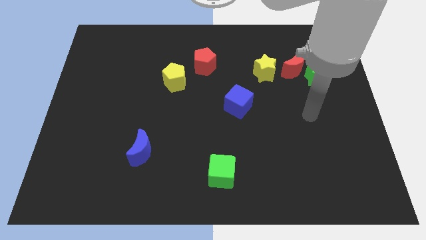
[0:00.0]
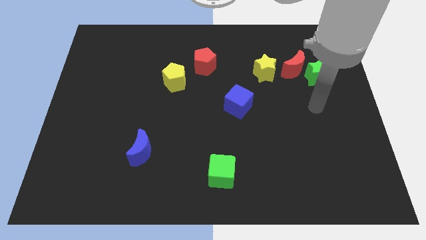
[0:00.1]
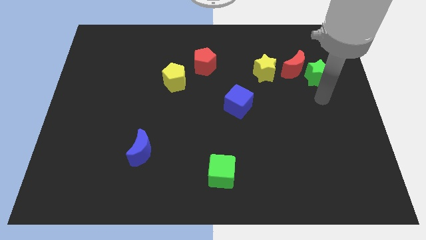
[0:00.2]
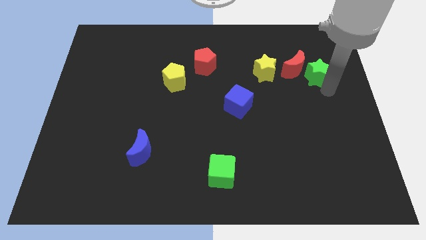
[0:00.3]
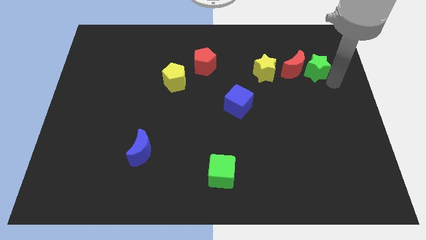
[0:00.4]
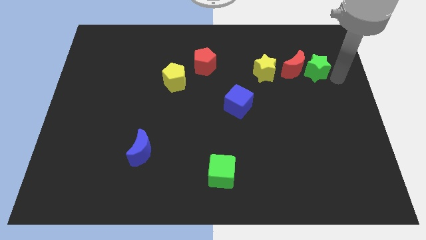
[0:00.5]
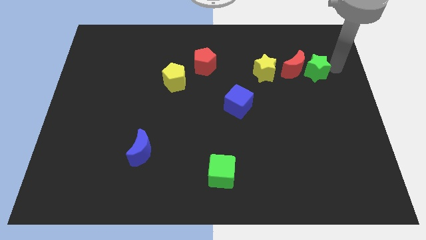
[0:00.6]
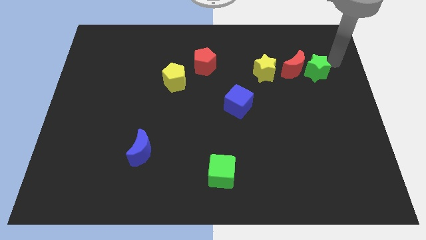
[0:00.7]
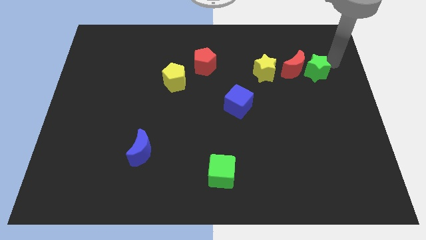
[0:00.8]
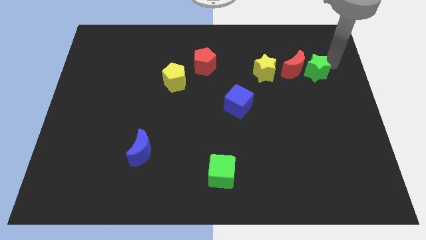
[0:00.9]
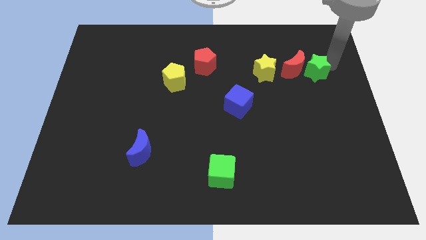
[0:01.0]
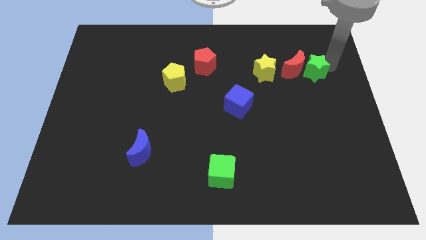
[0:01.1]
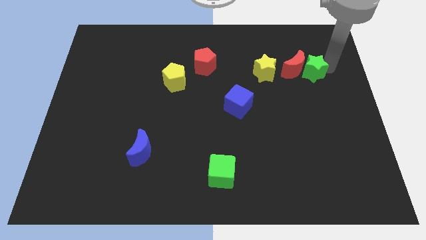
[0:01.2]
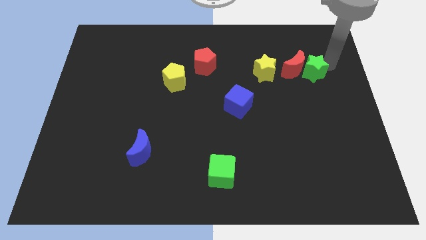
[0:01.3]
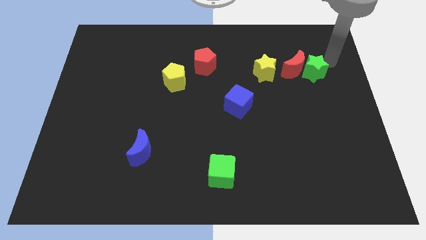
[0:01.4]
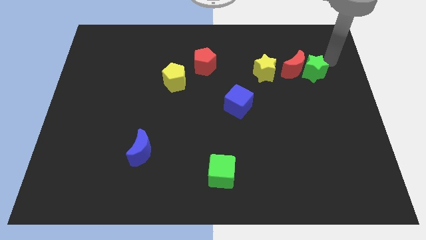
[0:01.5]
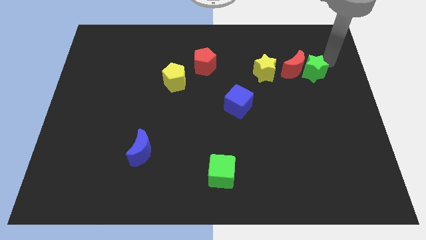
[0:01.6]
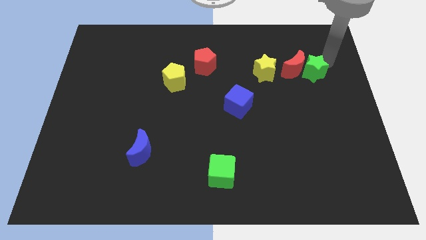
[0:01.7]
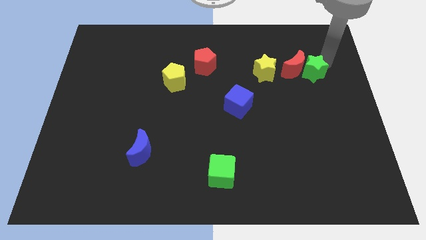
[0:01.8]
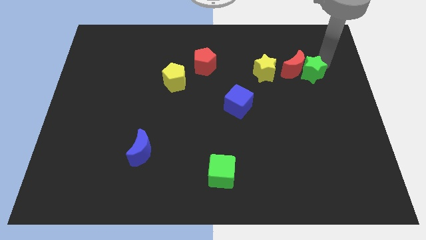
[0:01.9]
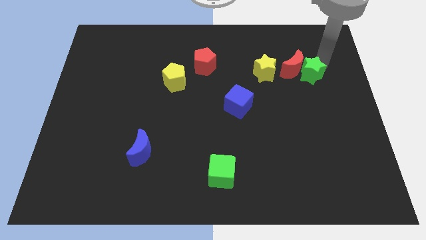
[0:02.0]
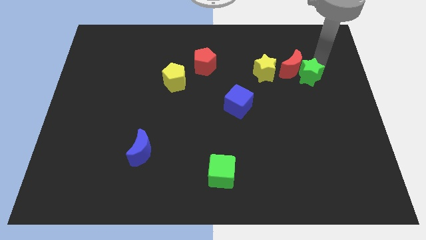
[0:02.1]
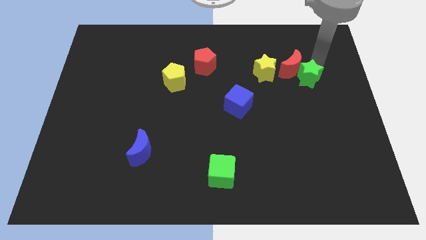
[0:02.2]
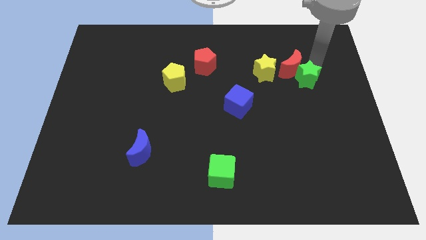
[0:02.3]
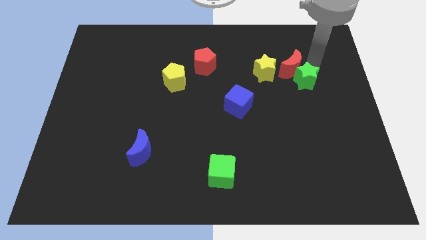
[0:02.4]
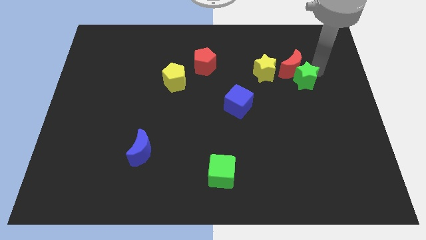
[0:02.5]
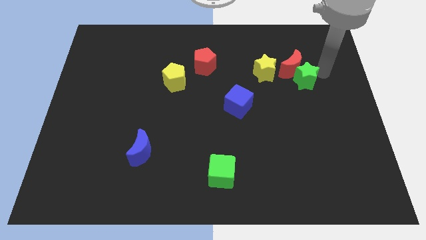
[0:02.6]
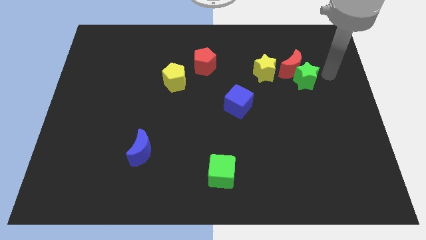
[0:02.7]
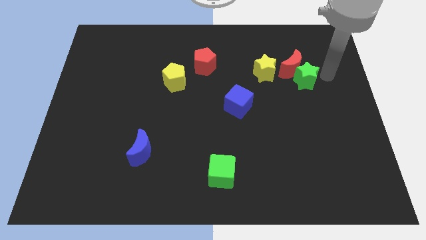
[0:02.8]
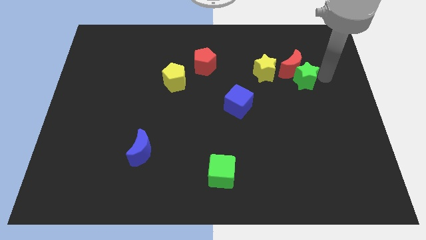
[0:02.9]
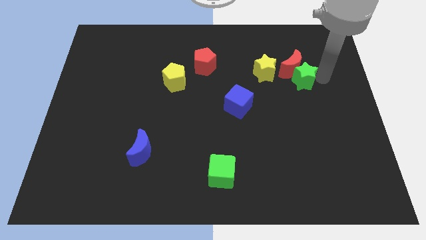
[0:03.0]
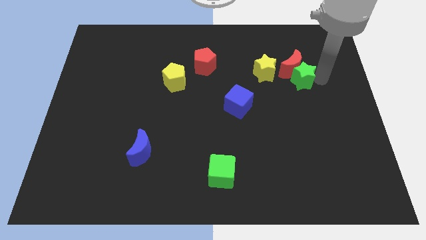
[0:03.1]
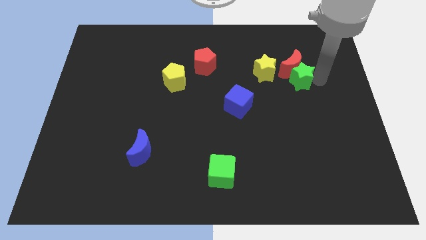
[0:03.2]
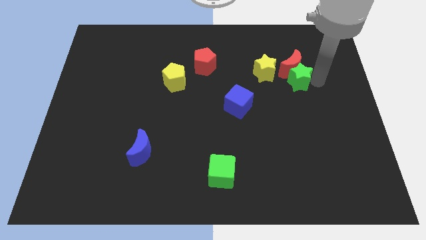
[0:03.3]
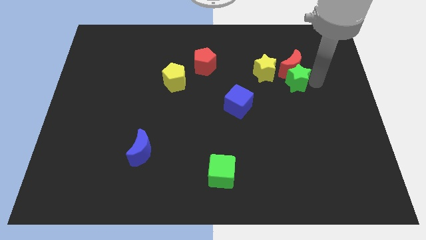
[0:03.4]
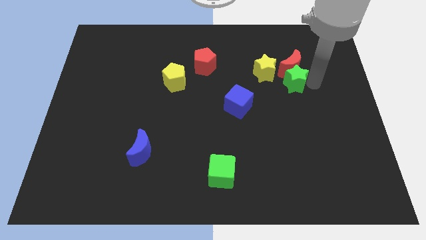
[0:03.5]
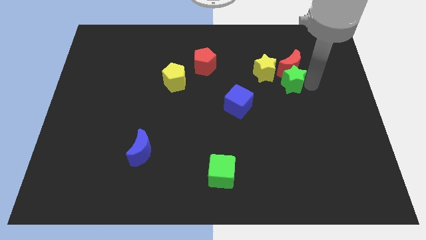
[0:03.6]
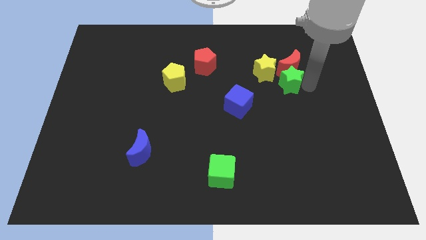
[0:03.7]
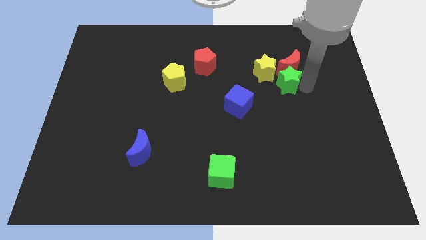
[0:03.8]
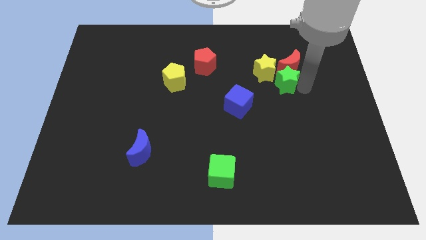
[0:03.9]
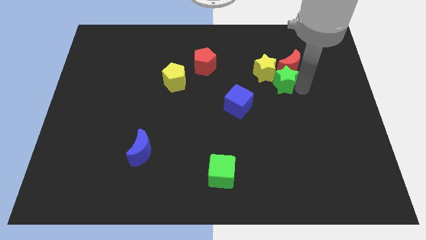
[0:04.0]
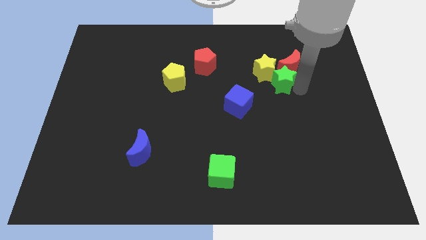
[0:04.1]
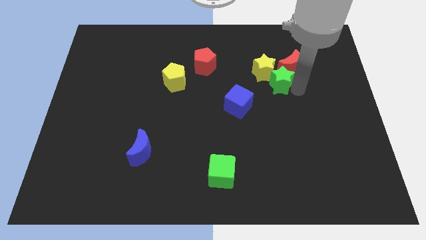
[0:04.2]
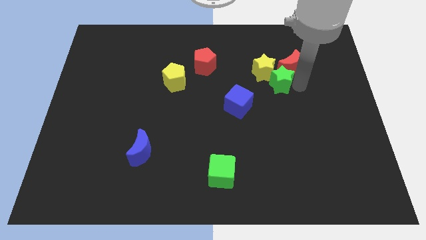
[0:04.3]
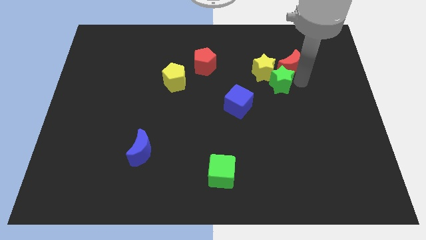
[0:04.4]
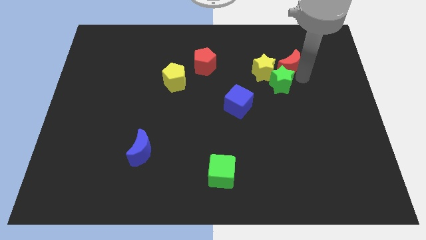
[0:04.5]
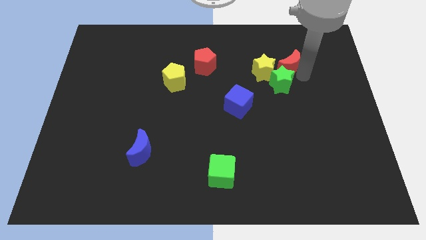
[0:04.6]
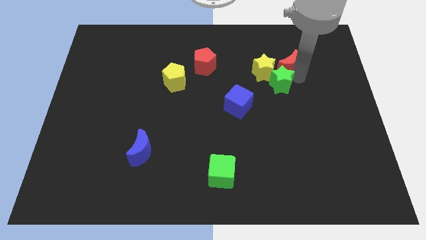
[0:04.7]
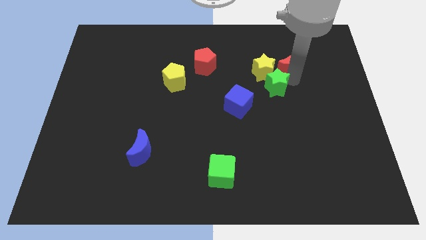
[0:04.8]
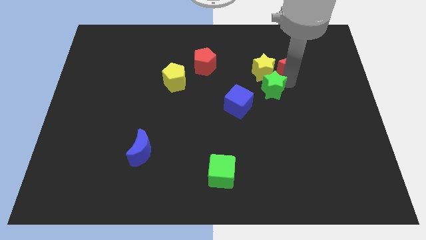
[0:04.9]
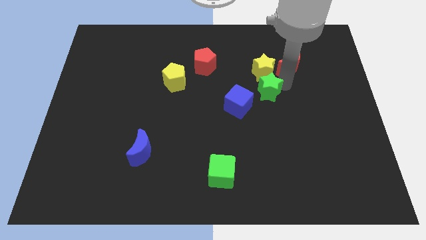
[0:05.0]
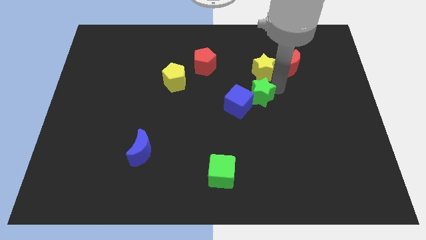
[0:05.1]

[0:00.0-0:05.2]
slide the green star next to the blue cube

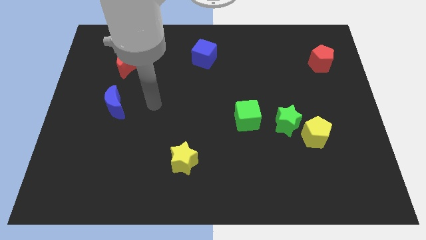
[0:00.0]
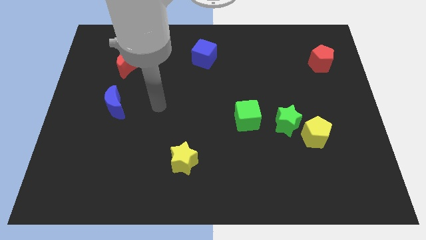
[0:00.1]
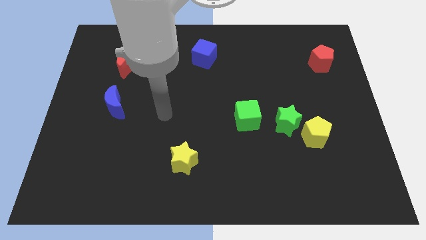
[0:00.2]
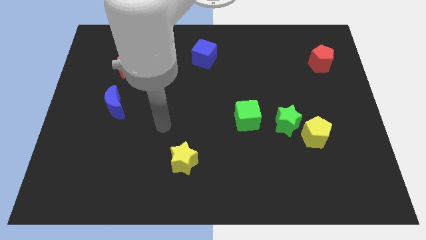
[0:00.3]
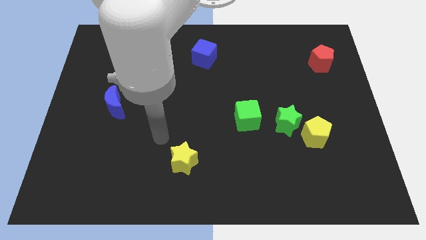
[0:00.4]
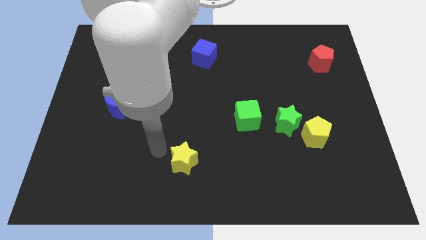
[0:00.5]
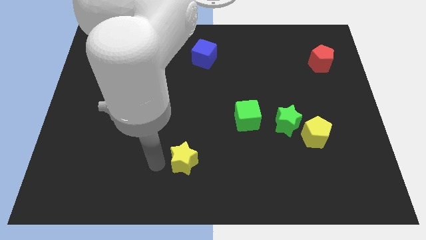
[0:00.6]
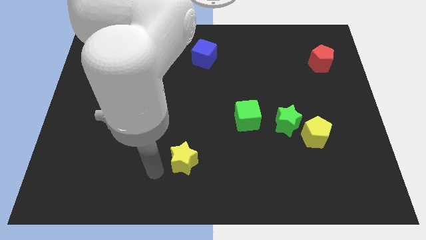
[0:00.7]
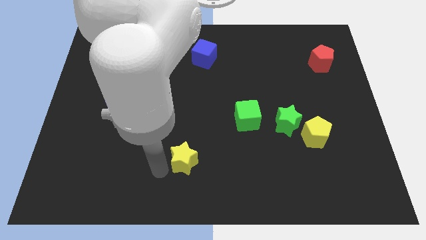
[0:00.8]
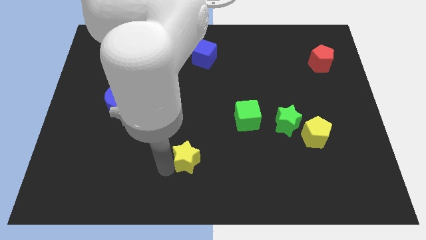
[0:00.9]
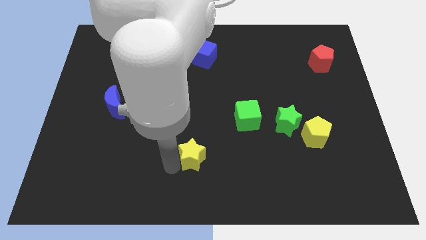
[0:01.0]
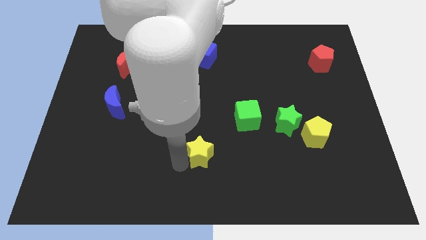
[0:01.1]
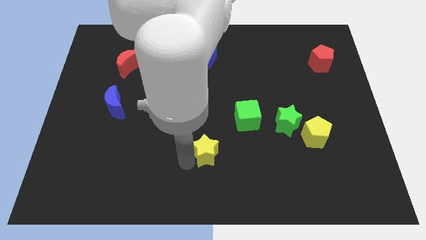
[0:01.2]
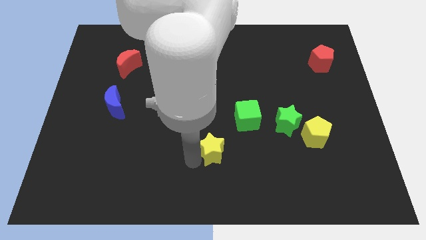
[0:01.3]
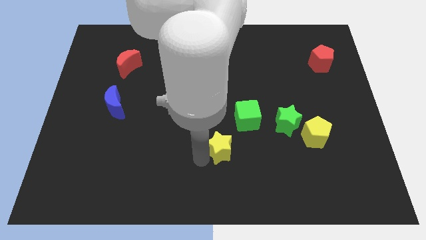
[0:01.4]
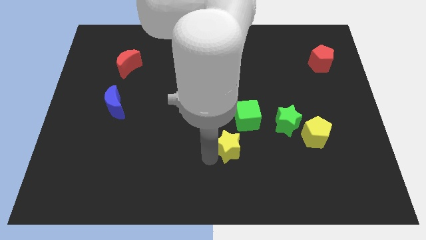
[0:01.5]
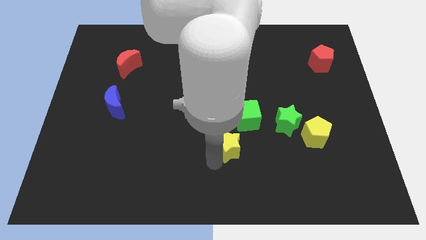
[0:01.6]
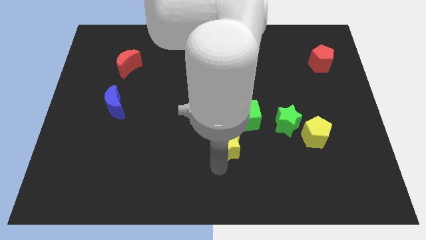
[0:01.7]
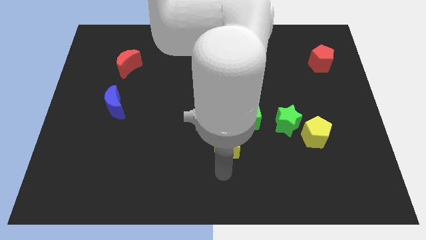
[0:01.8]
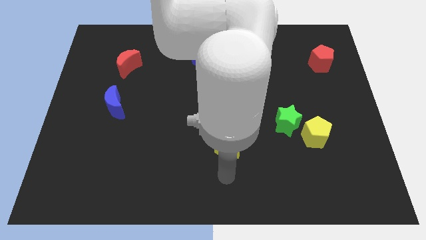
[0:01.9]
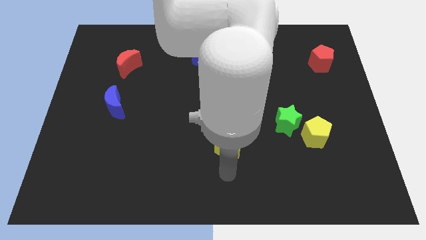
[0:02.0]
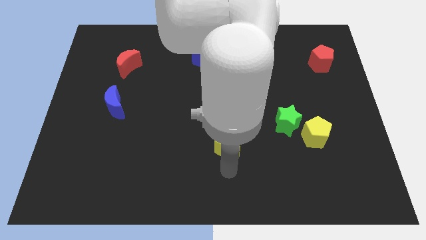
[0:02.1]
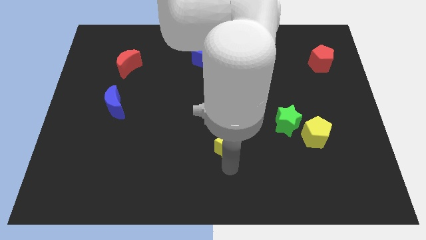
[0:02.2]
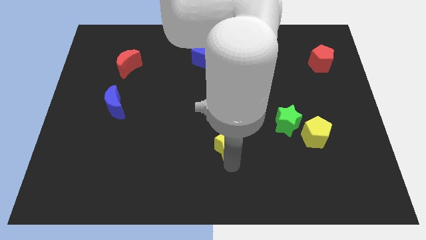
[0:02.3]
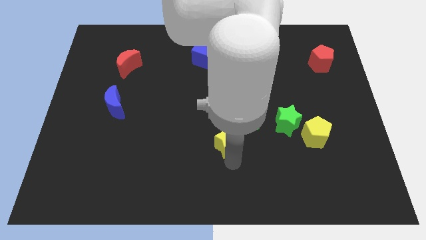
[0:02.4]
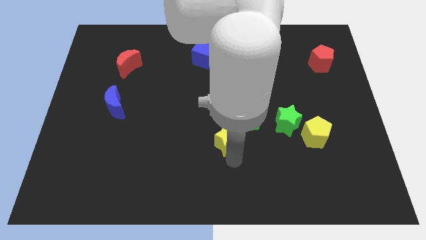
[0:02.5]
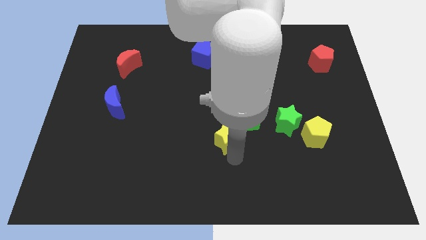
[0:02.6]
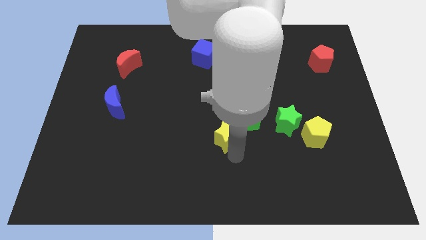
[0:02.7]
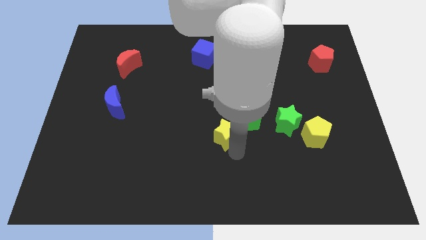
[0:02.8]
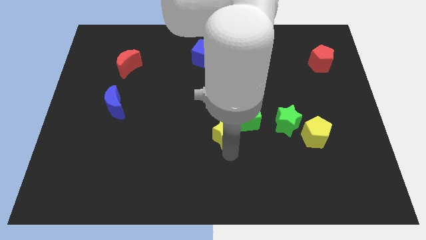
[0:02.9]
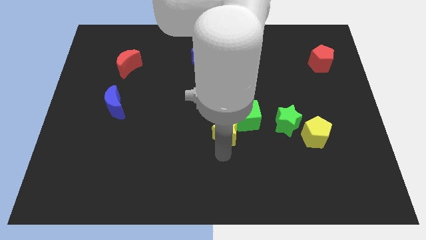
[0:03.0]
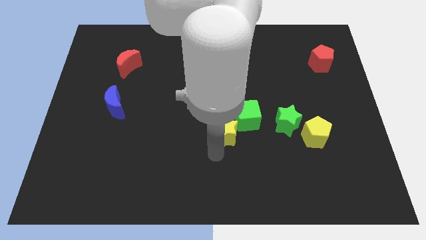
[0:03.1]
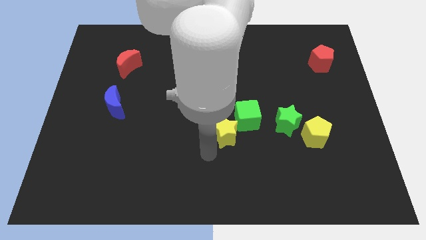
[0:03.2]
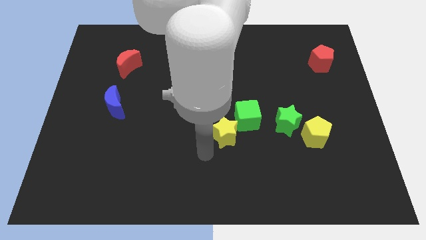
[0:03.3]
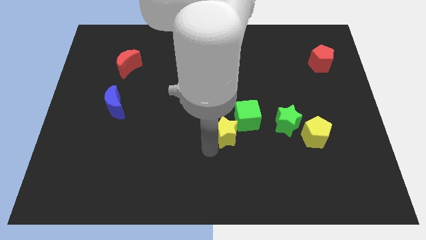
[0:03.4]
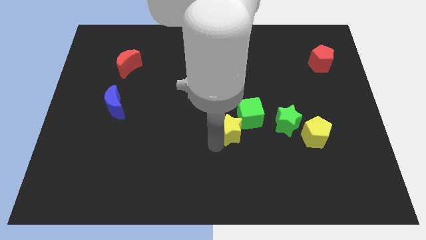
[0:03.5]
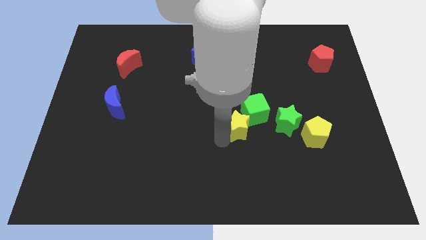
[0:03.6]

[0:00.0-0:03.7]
put the yellow star close to the green cube
